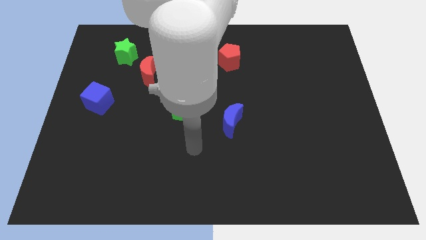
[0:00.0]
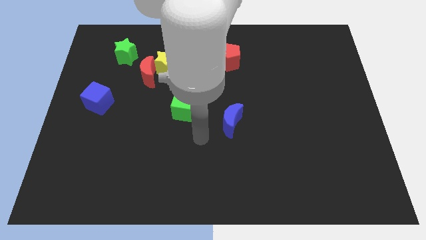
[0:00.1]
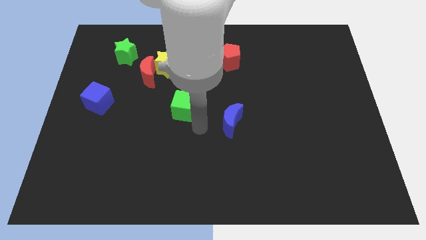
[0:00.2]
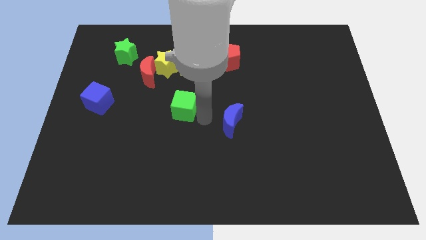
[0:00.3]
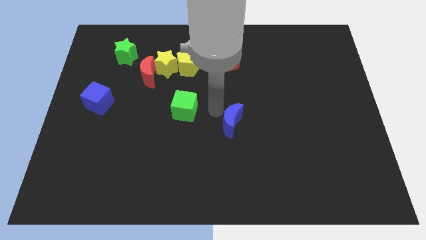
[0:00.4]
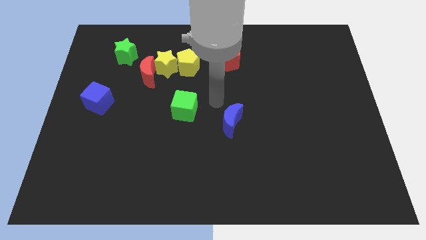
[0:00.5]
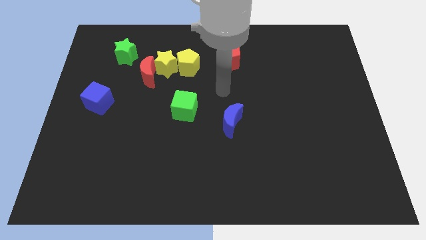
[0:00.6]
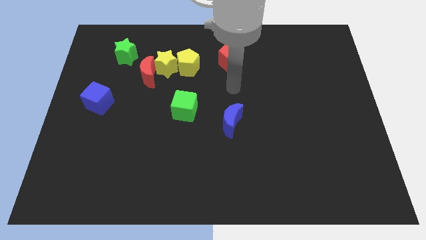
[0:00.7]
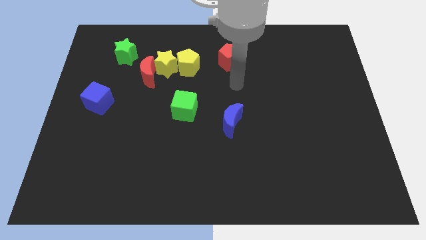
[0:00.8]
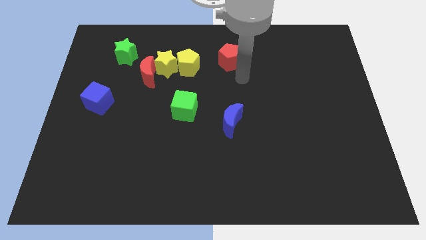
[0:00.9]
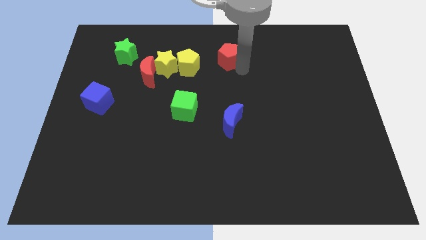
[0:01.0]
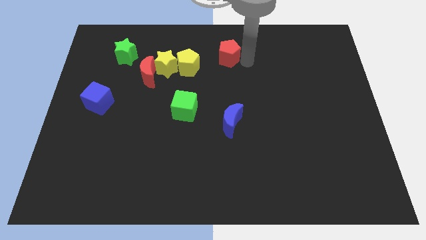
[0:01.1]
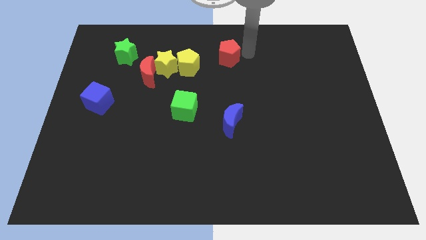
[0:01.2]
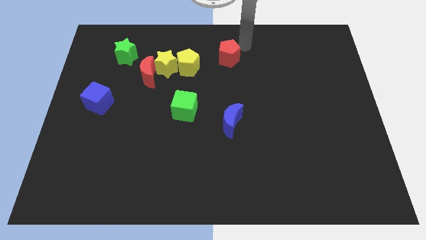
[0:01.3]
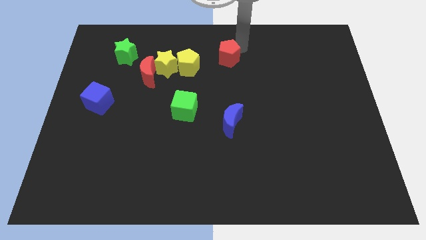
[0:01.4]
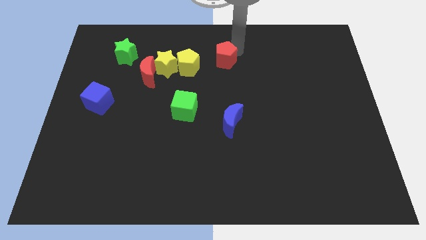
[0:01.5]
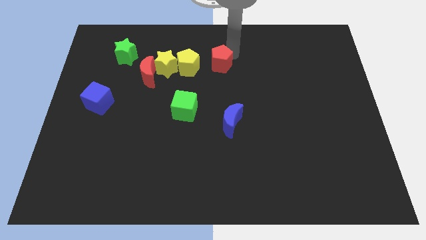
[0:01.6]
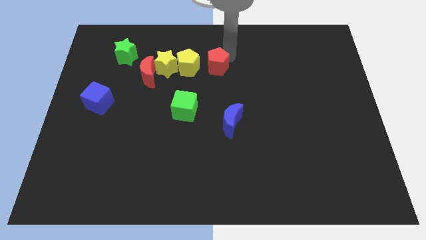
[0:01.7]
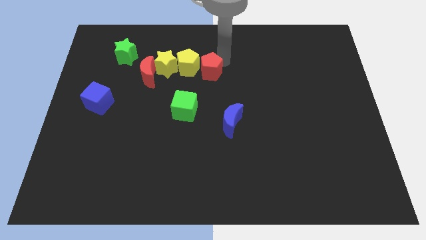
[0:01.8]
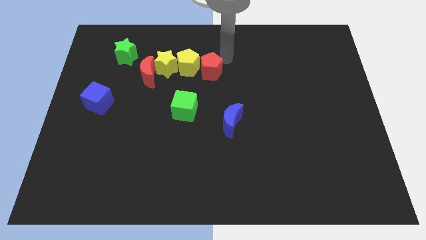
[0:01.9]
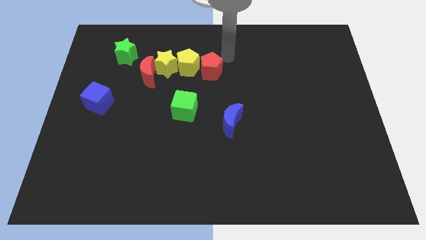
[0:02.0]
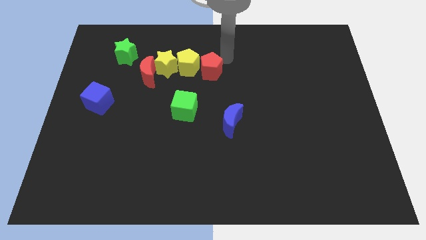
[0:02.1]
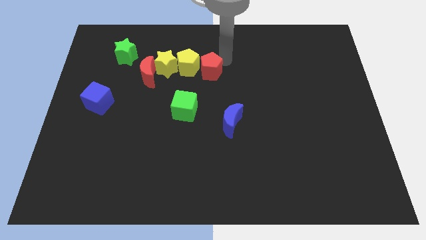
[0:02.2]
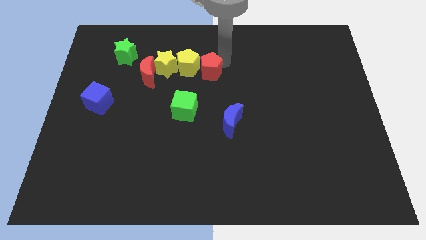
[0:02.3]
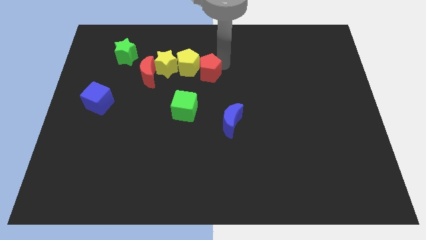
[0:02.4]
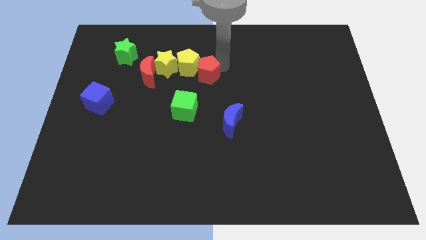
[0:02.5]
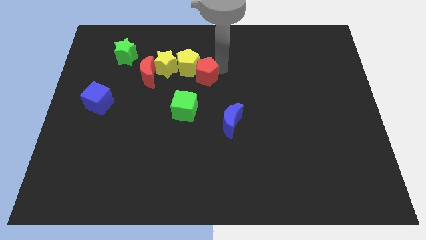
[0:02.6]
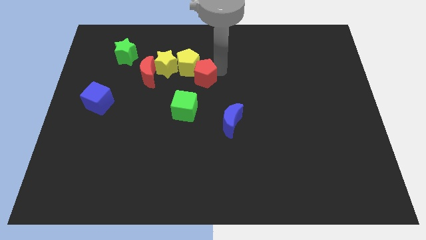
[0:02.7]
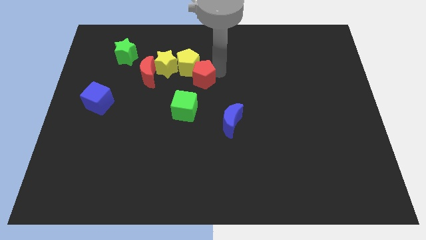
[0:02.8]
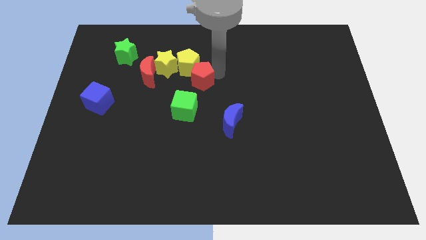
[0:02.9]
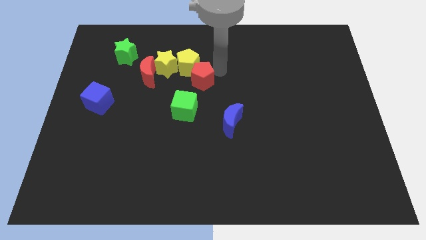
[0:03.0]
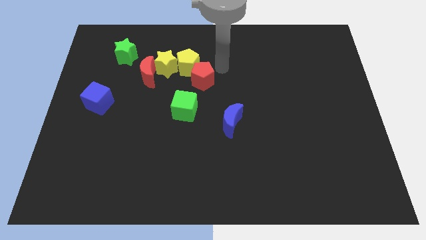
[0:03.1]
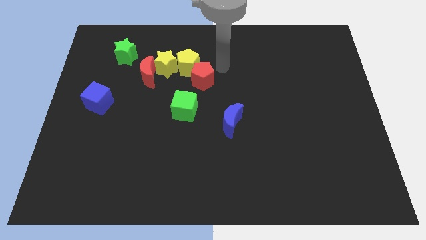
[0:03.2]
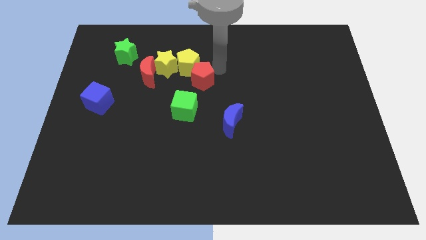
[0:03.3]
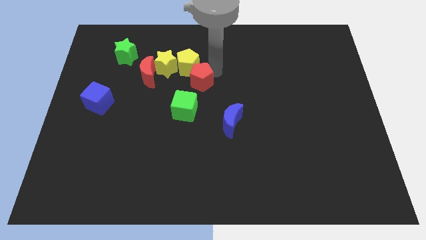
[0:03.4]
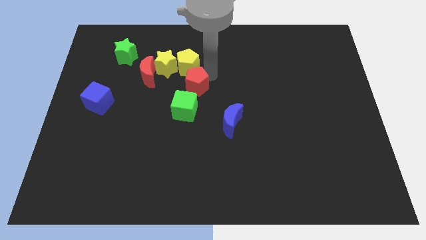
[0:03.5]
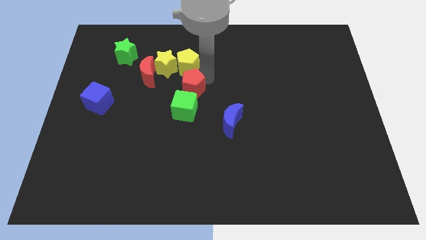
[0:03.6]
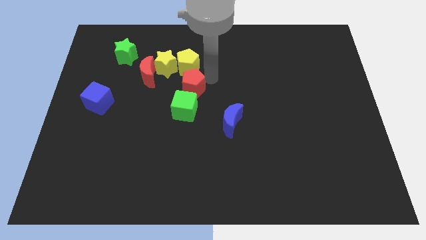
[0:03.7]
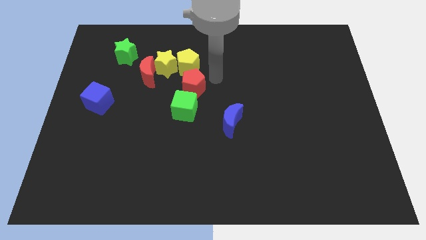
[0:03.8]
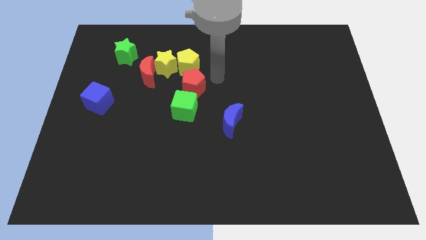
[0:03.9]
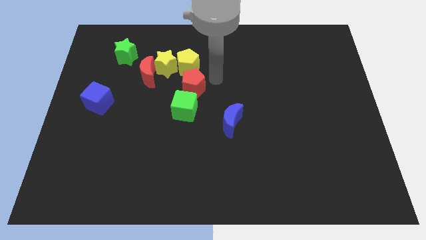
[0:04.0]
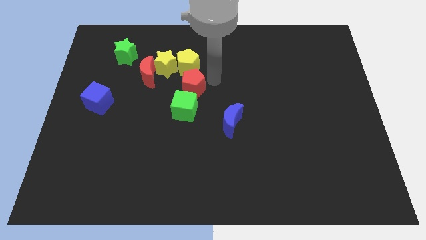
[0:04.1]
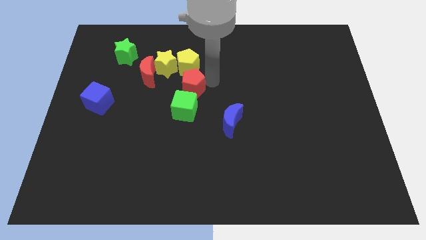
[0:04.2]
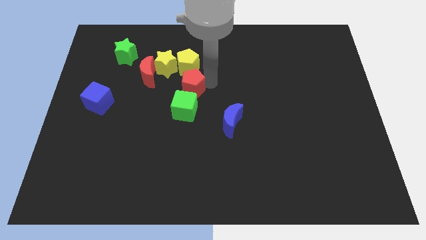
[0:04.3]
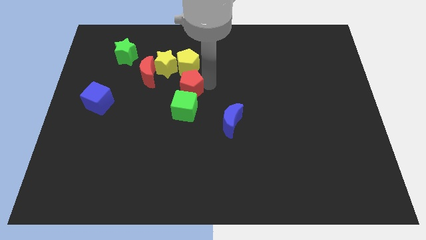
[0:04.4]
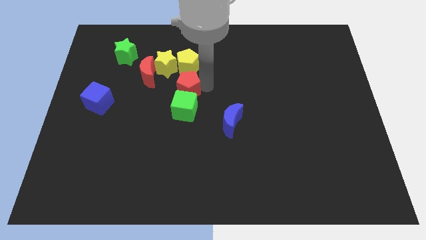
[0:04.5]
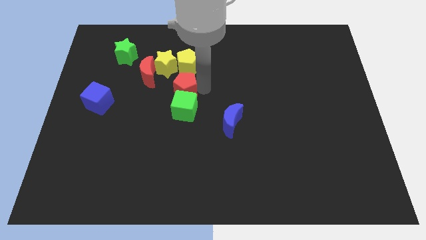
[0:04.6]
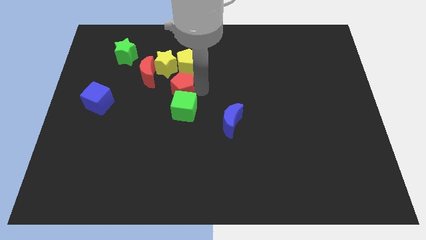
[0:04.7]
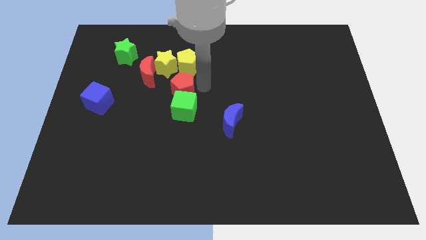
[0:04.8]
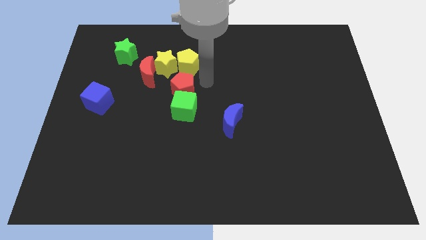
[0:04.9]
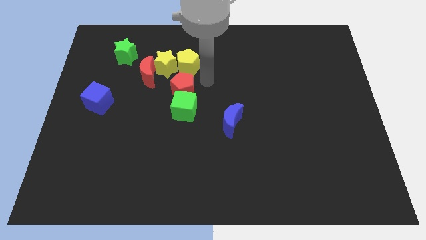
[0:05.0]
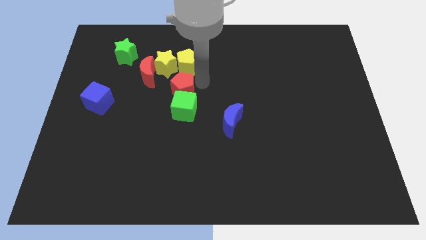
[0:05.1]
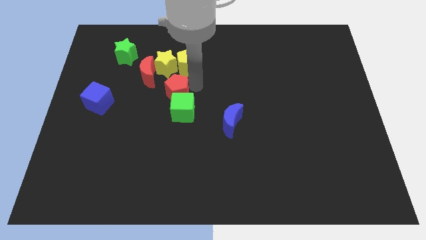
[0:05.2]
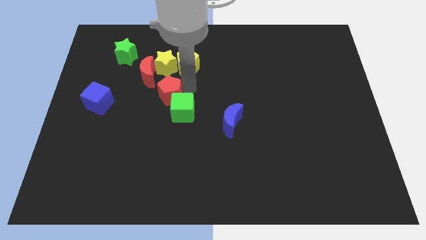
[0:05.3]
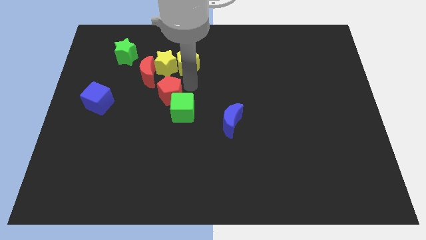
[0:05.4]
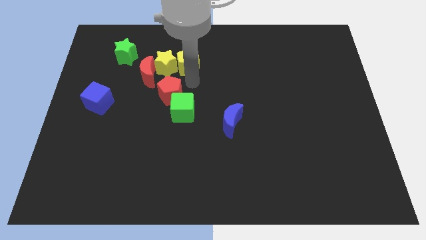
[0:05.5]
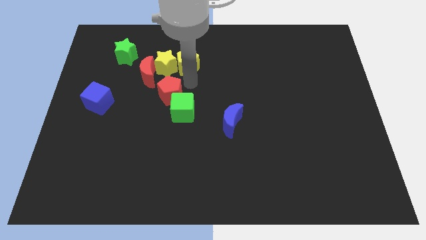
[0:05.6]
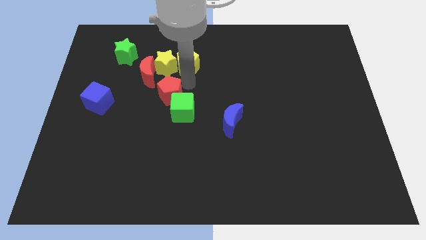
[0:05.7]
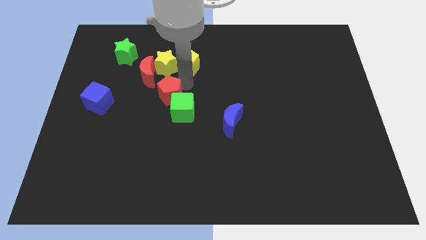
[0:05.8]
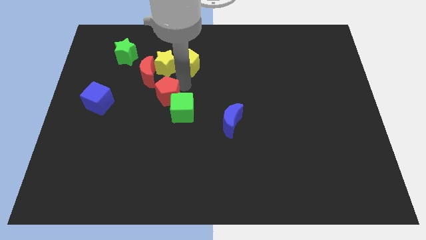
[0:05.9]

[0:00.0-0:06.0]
push the red pentagon to the left of the green cube

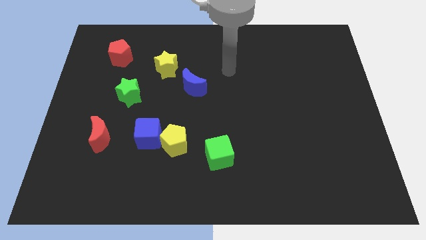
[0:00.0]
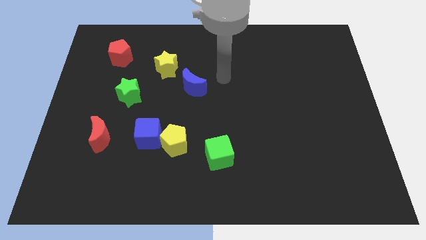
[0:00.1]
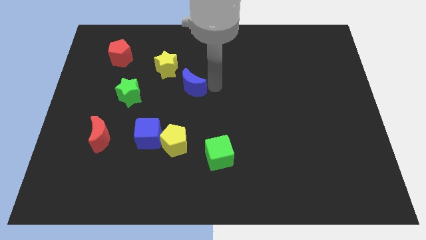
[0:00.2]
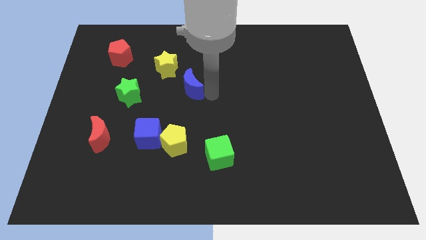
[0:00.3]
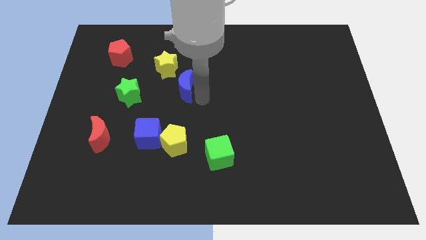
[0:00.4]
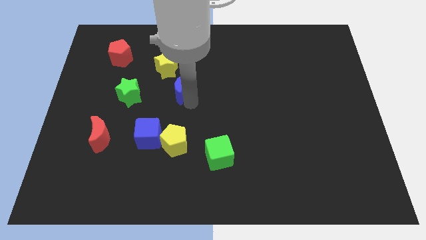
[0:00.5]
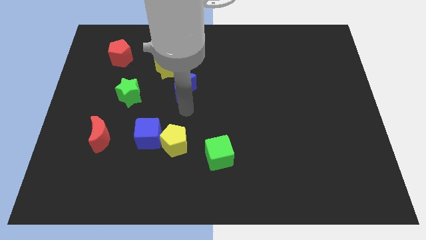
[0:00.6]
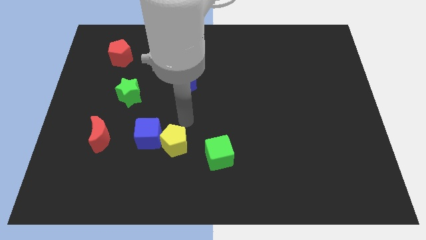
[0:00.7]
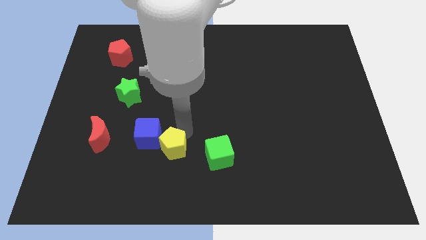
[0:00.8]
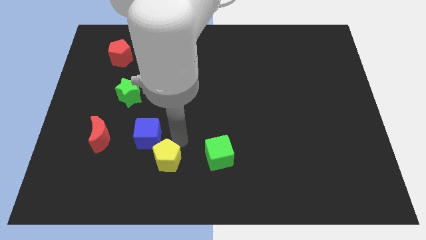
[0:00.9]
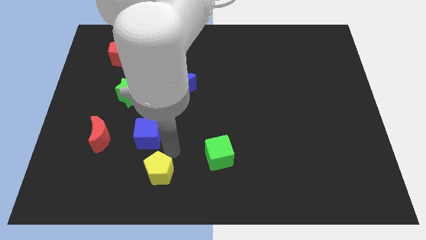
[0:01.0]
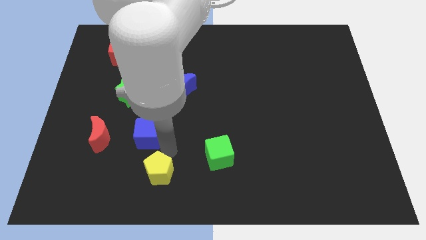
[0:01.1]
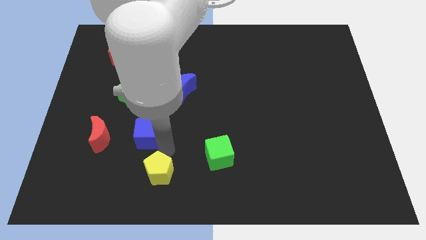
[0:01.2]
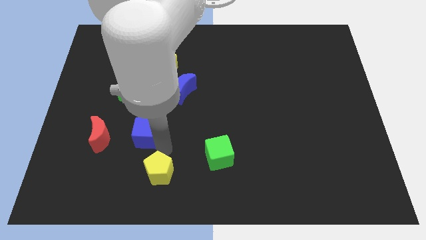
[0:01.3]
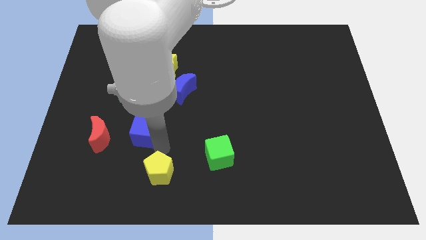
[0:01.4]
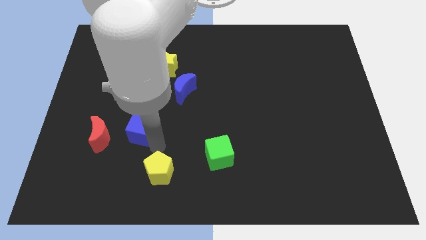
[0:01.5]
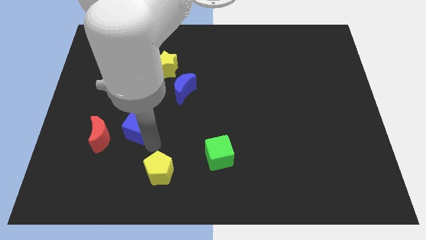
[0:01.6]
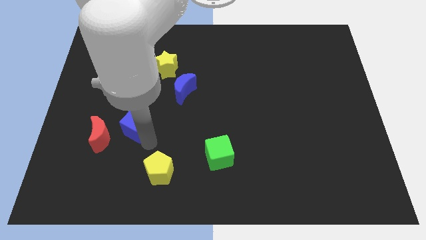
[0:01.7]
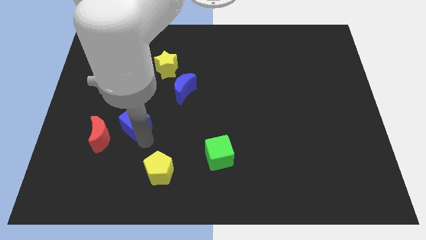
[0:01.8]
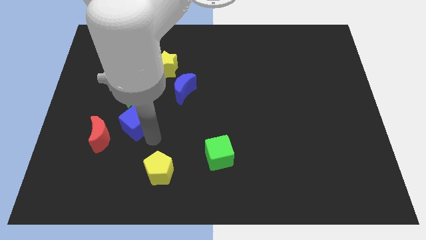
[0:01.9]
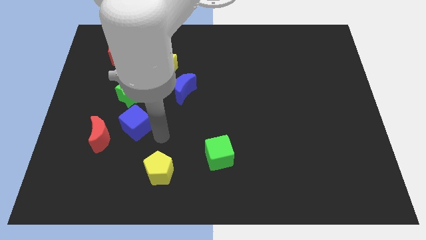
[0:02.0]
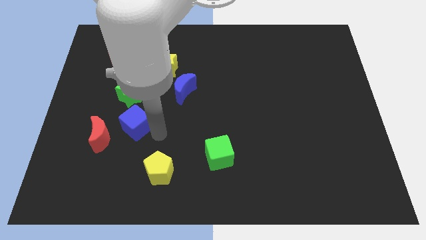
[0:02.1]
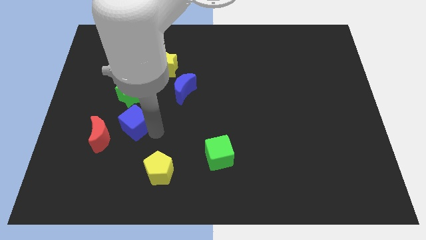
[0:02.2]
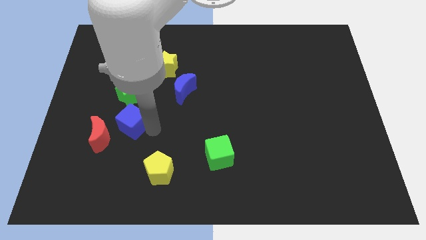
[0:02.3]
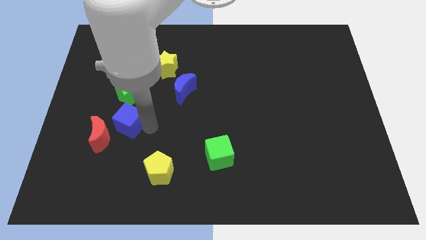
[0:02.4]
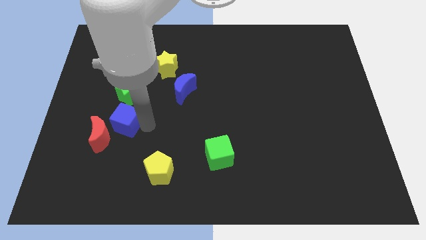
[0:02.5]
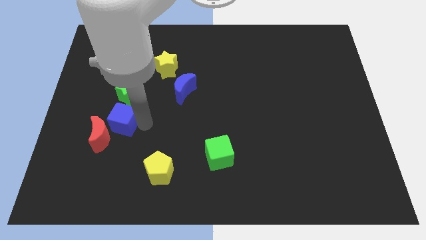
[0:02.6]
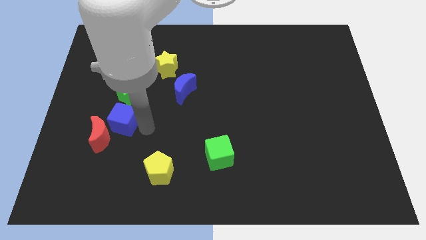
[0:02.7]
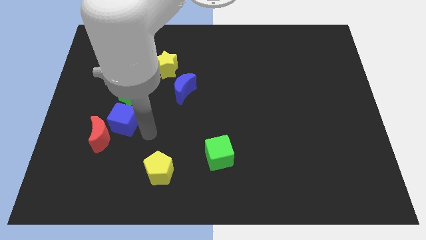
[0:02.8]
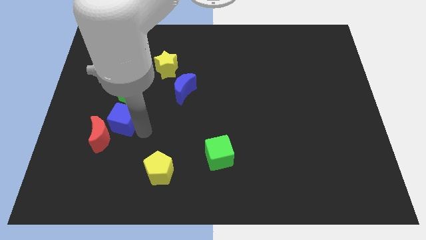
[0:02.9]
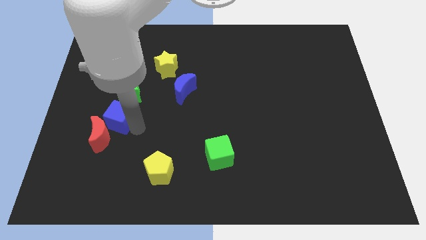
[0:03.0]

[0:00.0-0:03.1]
put the blue cube to the bottom left of the green star
